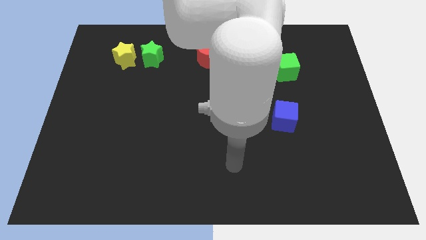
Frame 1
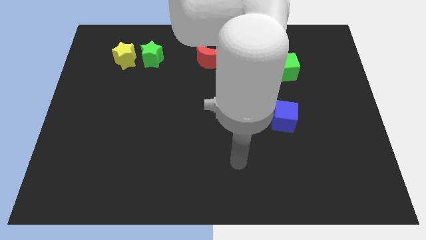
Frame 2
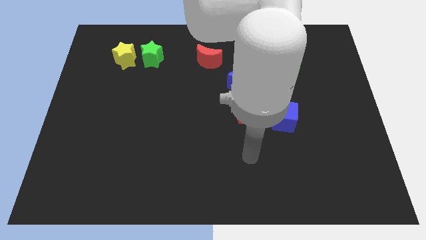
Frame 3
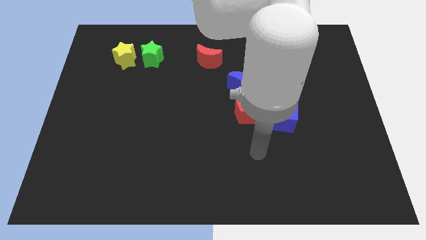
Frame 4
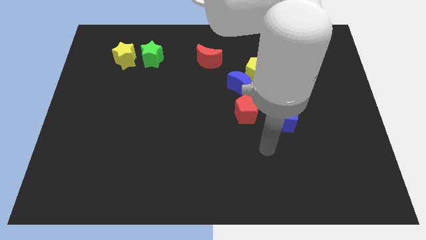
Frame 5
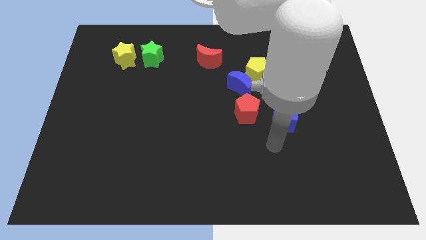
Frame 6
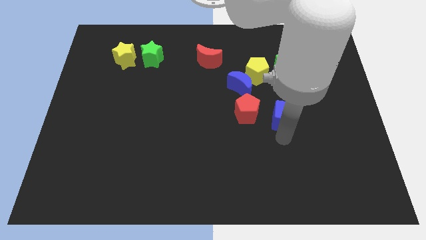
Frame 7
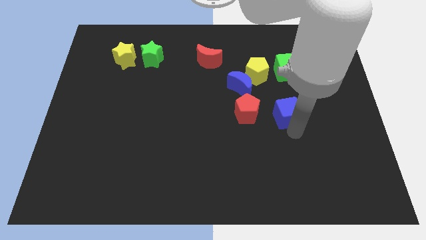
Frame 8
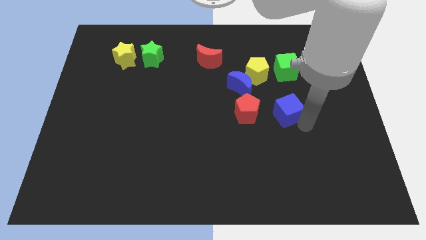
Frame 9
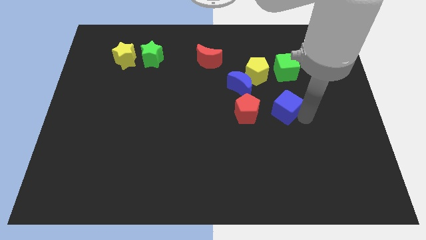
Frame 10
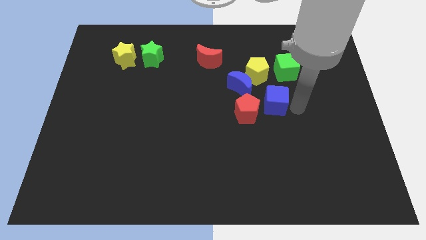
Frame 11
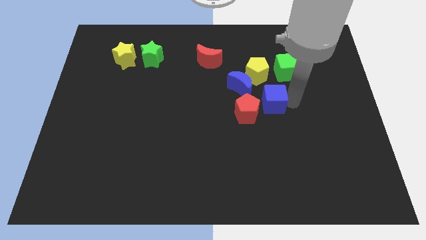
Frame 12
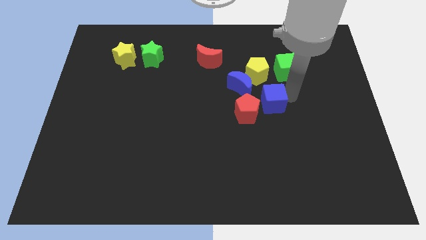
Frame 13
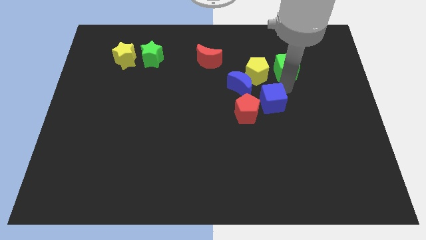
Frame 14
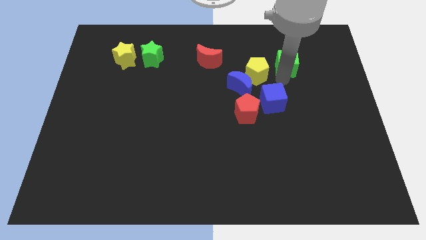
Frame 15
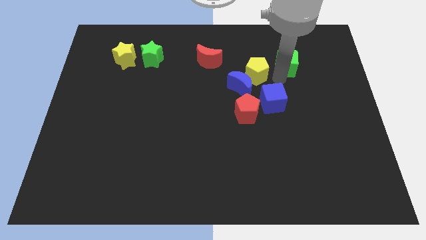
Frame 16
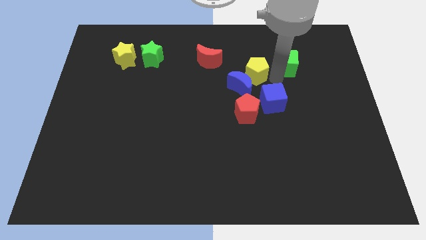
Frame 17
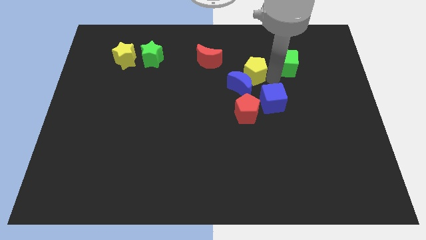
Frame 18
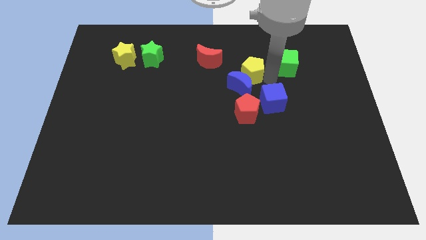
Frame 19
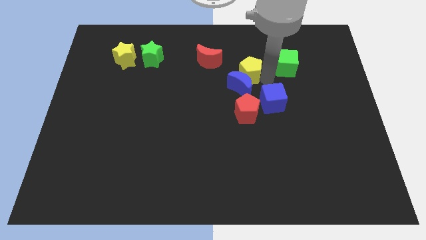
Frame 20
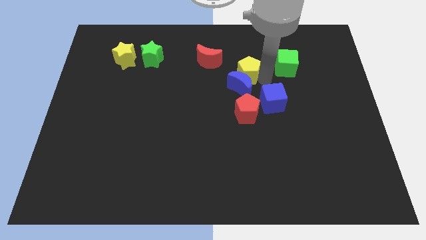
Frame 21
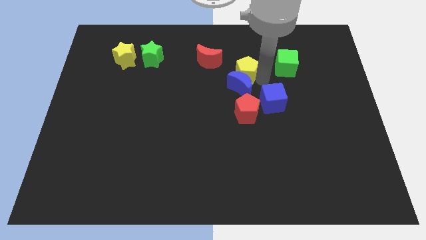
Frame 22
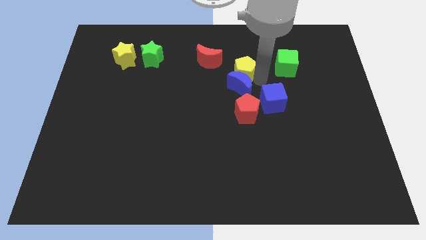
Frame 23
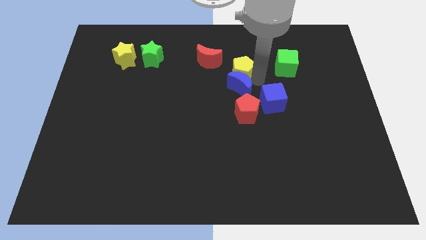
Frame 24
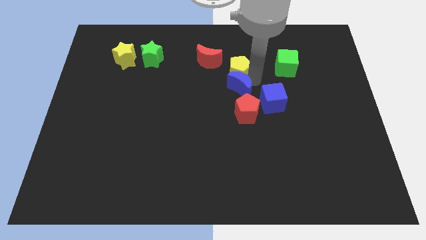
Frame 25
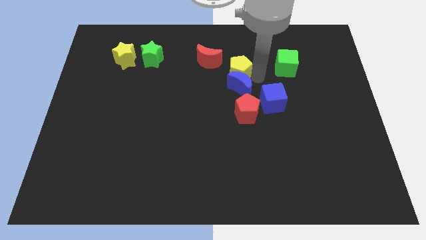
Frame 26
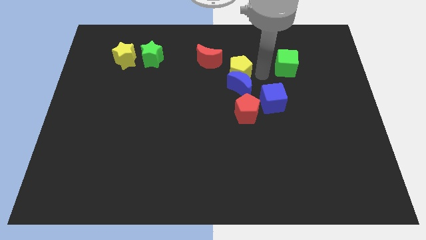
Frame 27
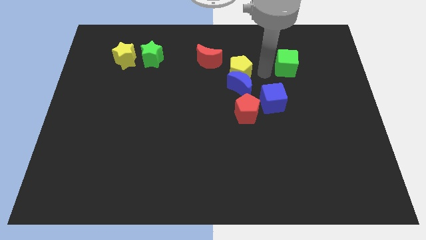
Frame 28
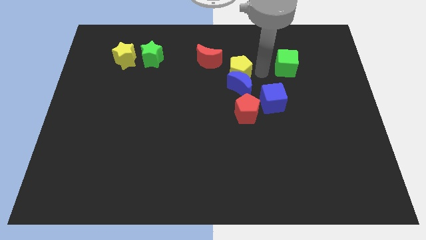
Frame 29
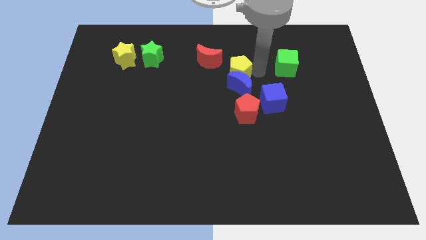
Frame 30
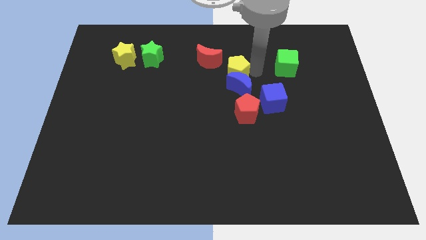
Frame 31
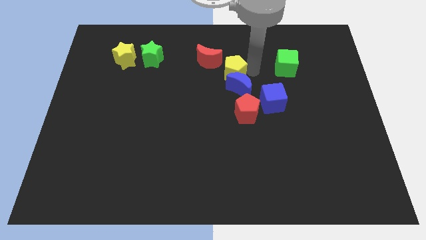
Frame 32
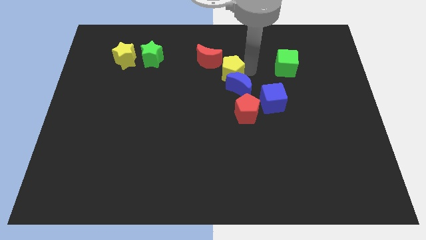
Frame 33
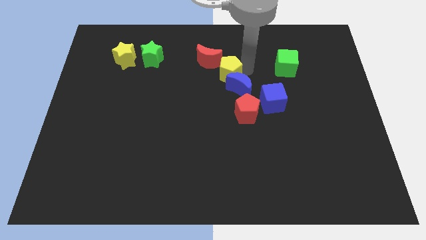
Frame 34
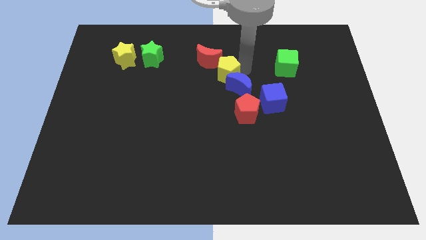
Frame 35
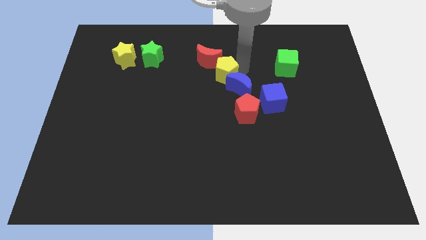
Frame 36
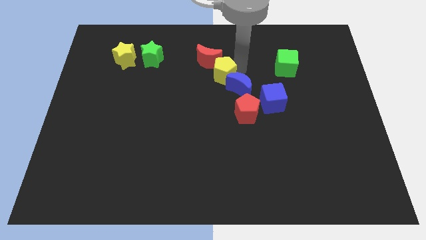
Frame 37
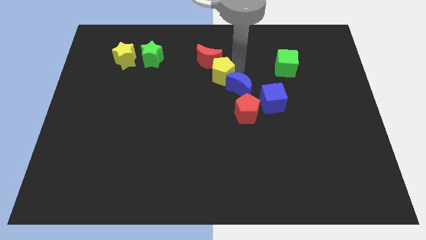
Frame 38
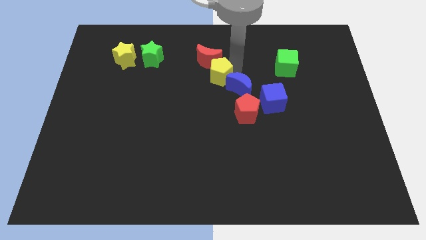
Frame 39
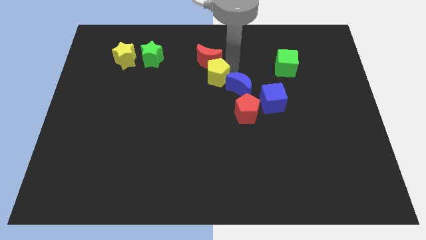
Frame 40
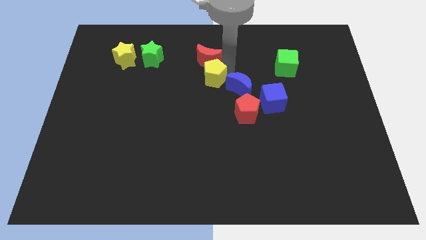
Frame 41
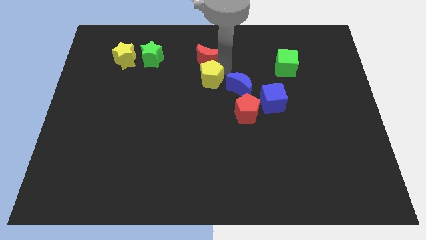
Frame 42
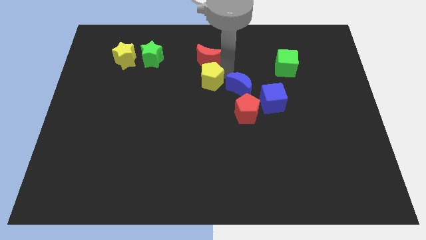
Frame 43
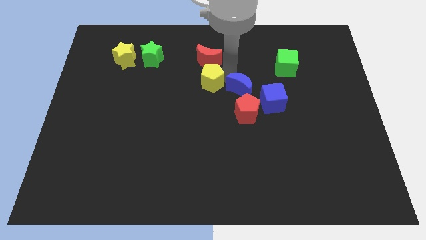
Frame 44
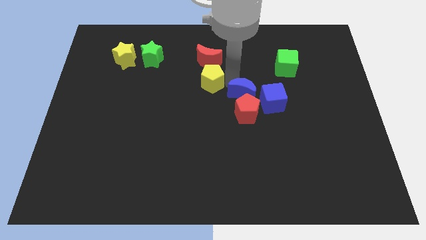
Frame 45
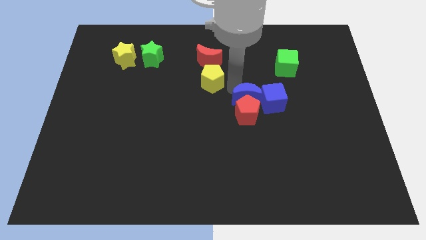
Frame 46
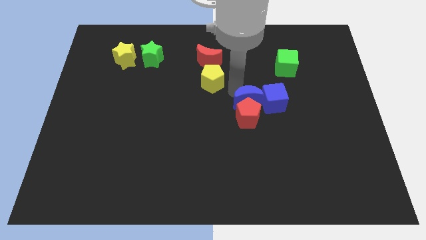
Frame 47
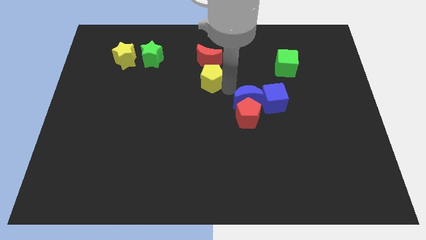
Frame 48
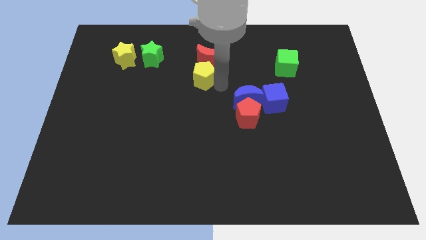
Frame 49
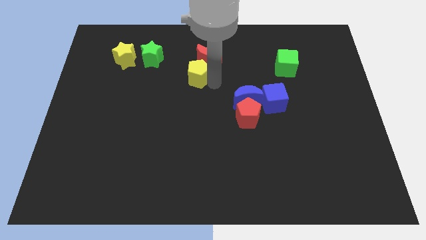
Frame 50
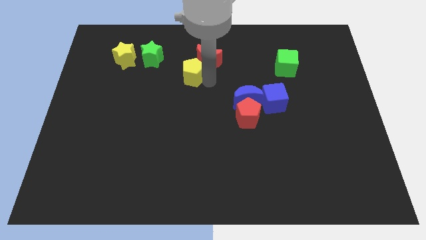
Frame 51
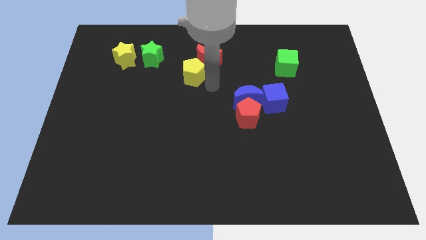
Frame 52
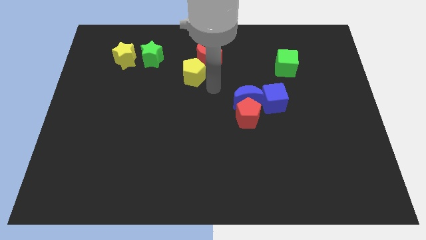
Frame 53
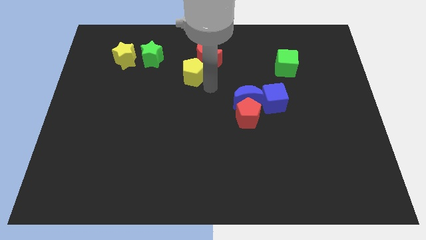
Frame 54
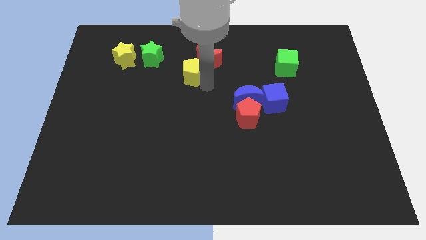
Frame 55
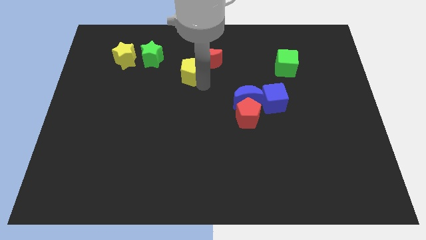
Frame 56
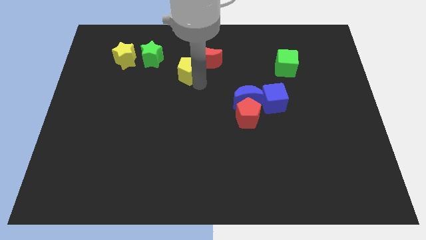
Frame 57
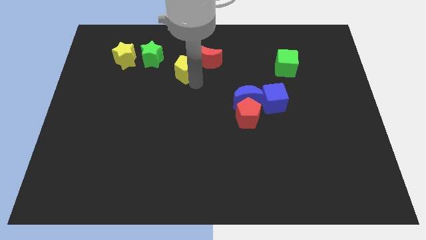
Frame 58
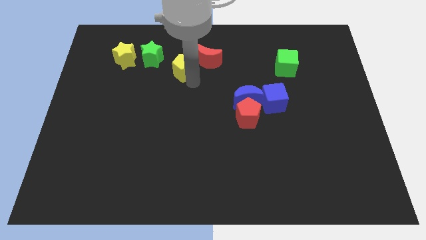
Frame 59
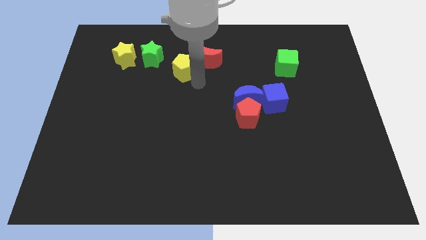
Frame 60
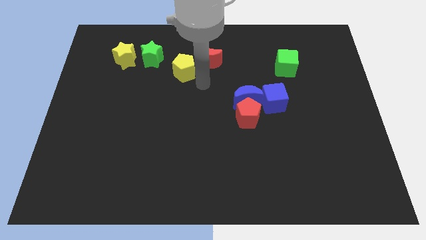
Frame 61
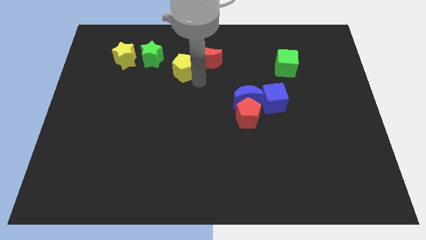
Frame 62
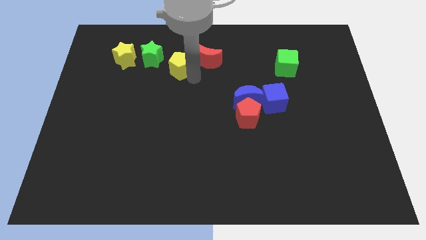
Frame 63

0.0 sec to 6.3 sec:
put the yellow pentagon to the right side of the yellow star
